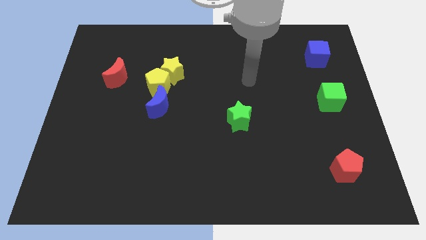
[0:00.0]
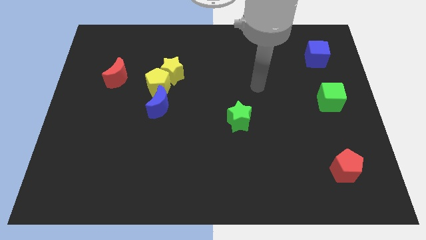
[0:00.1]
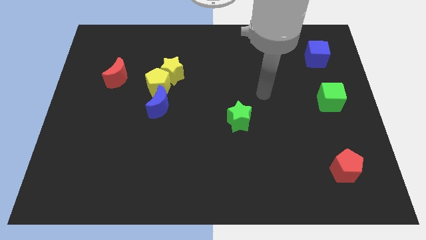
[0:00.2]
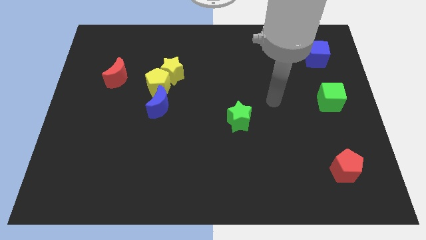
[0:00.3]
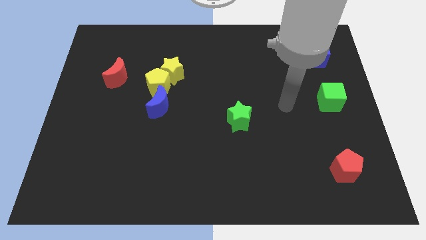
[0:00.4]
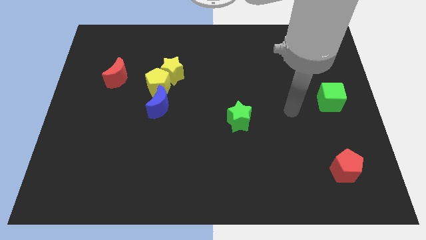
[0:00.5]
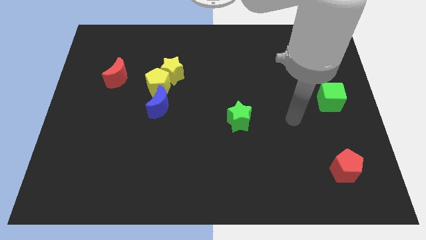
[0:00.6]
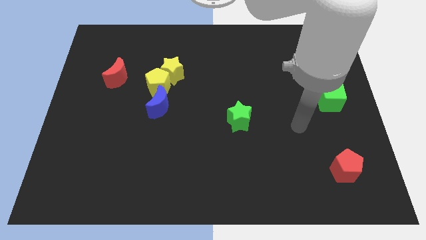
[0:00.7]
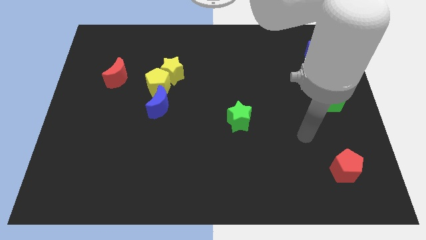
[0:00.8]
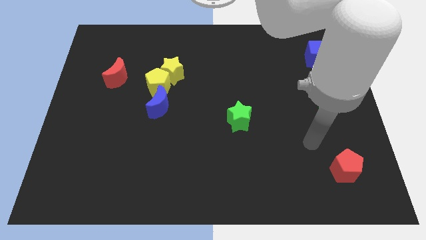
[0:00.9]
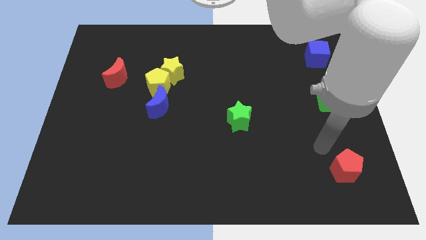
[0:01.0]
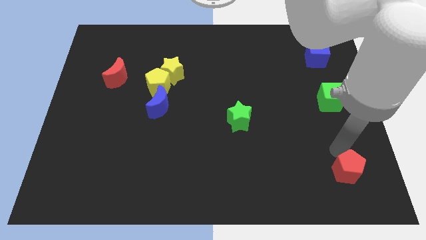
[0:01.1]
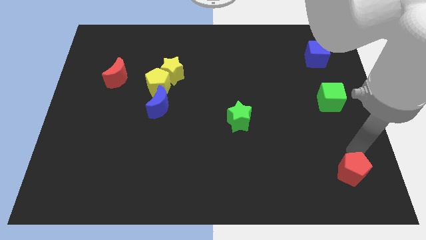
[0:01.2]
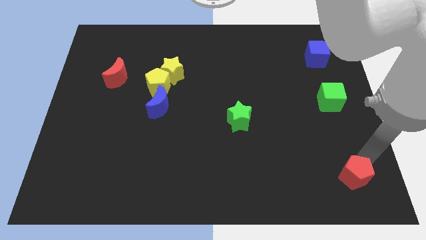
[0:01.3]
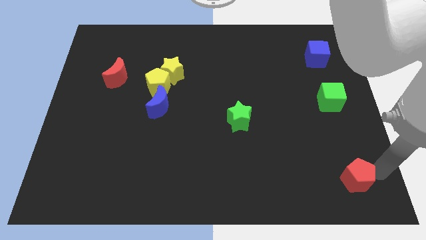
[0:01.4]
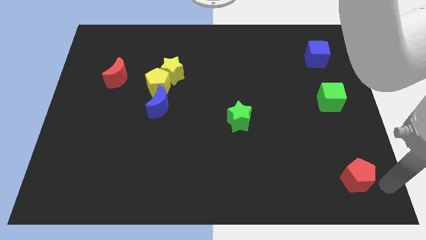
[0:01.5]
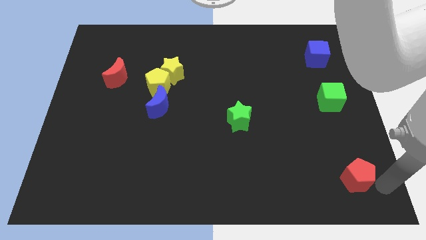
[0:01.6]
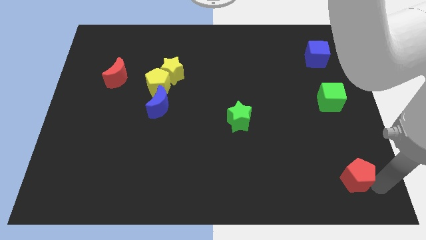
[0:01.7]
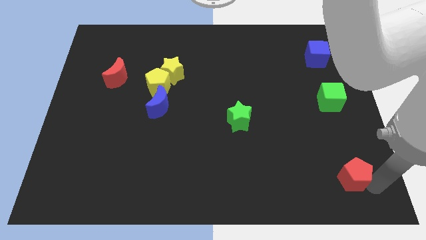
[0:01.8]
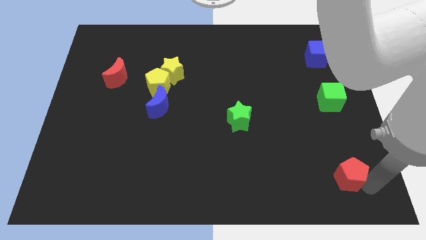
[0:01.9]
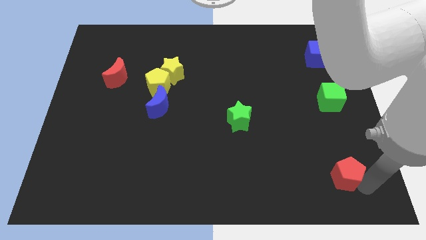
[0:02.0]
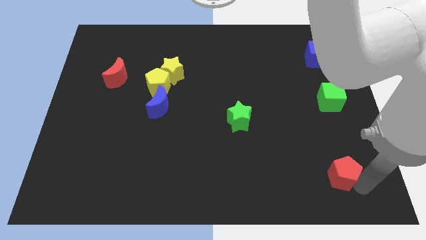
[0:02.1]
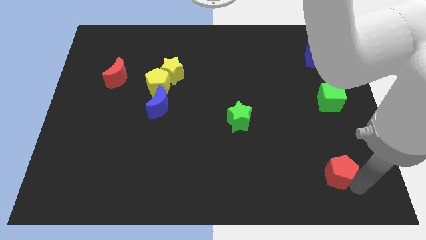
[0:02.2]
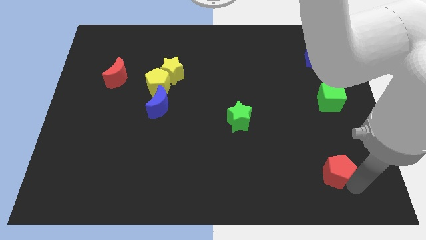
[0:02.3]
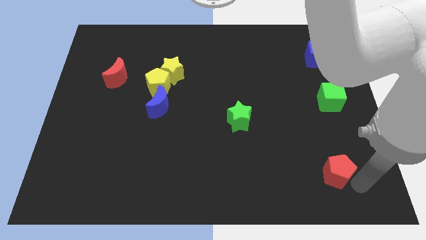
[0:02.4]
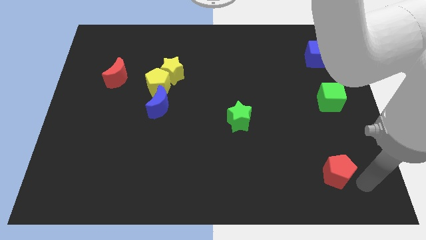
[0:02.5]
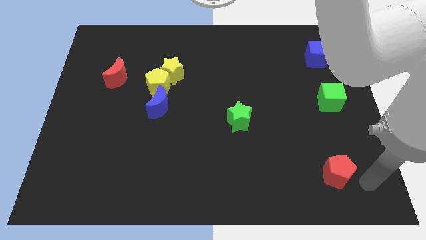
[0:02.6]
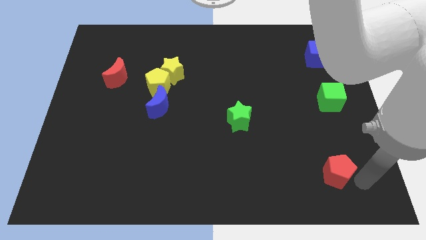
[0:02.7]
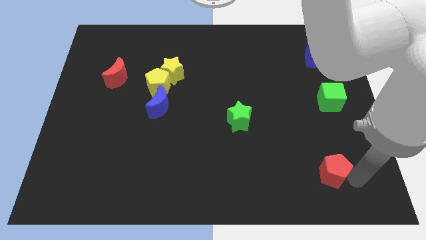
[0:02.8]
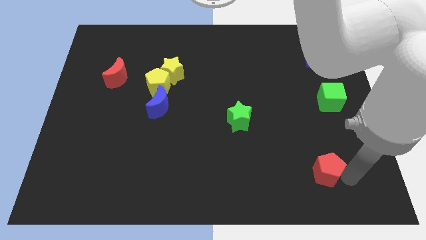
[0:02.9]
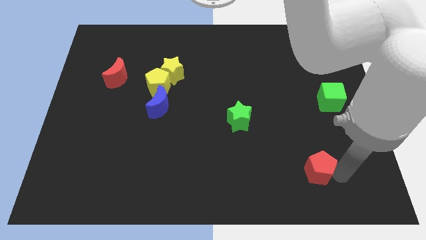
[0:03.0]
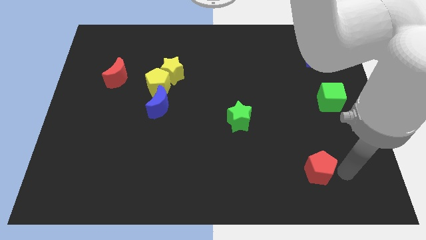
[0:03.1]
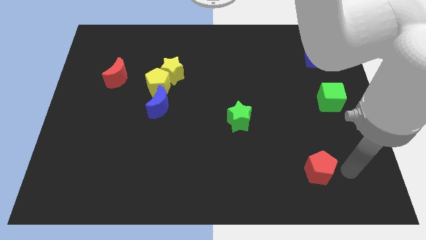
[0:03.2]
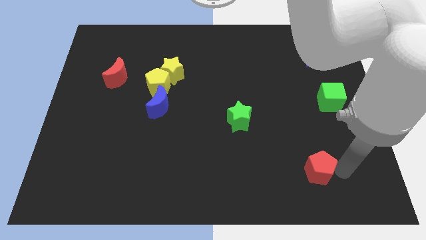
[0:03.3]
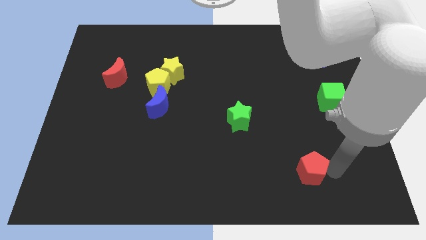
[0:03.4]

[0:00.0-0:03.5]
slightly push the red pentagon to the left

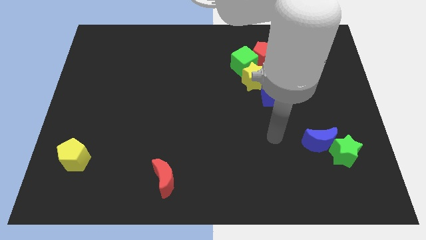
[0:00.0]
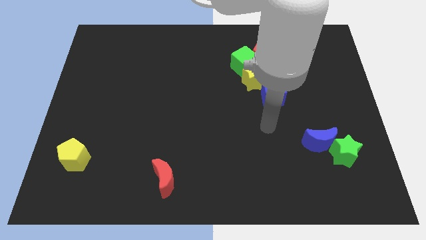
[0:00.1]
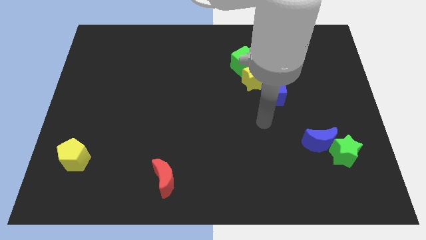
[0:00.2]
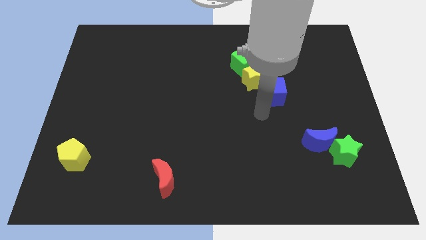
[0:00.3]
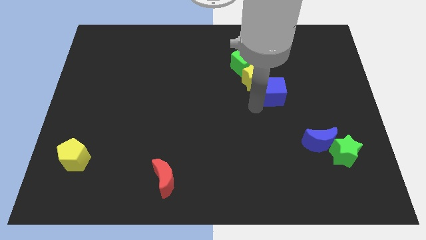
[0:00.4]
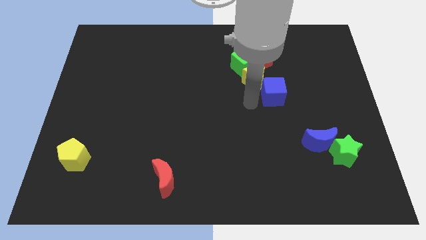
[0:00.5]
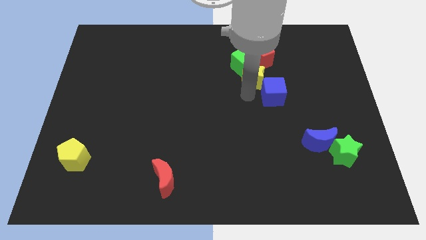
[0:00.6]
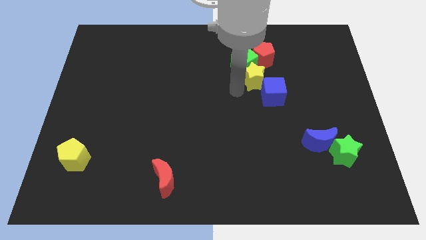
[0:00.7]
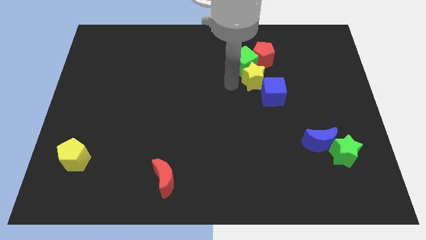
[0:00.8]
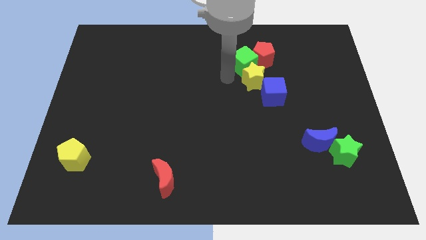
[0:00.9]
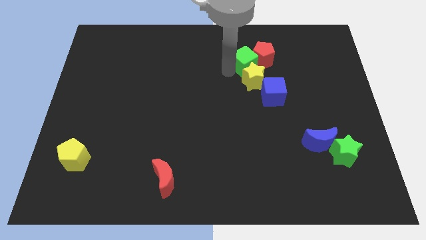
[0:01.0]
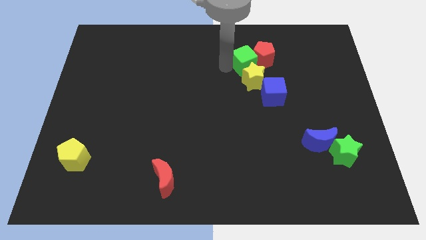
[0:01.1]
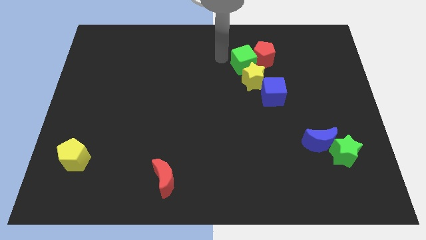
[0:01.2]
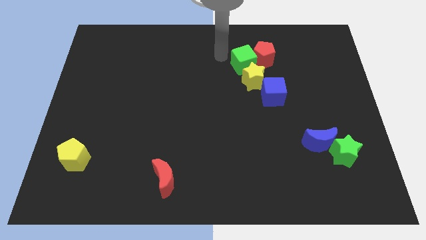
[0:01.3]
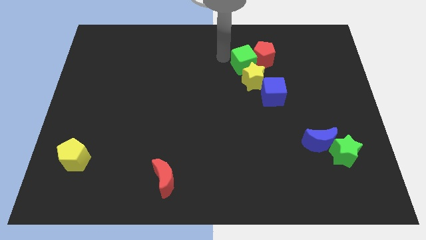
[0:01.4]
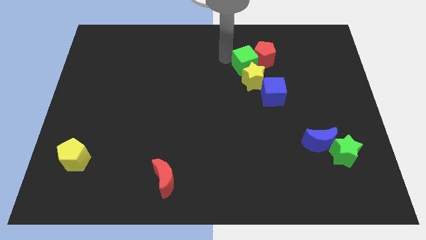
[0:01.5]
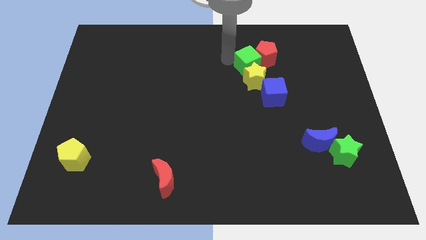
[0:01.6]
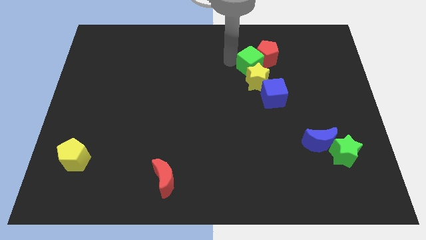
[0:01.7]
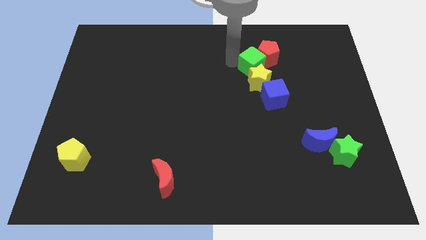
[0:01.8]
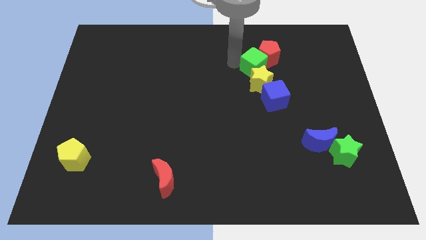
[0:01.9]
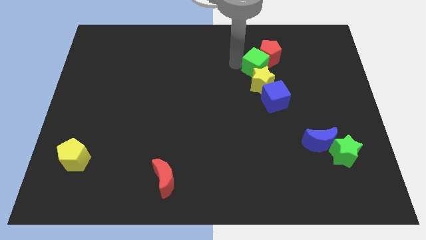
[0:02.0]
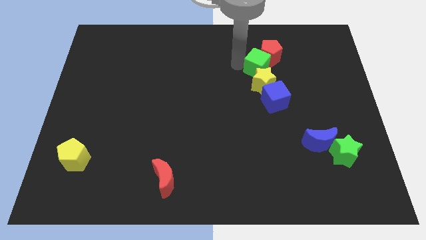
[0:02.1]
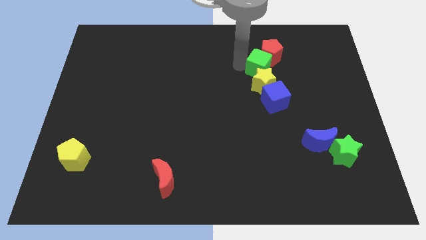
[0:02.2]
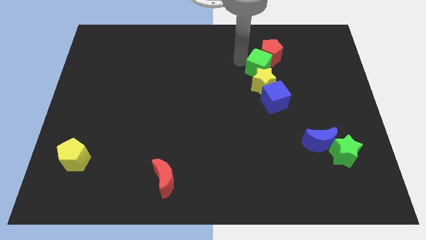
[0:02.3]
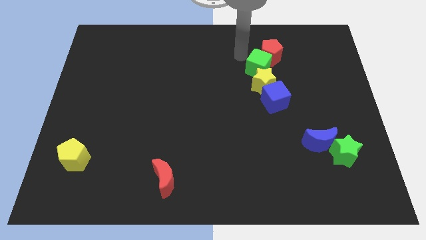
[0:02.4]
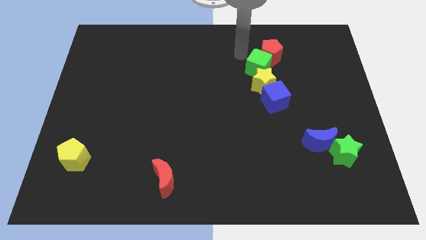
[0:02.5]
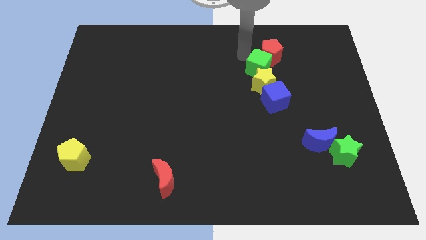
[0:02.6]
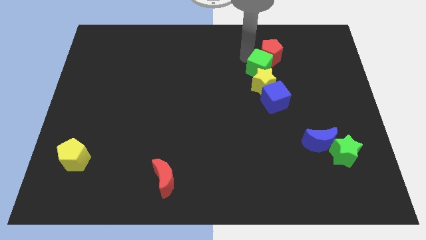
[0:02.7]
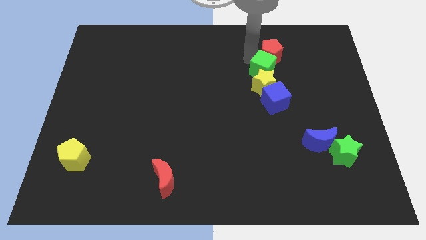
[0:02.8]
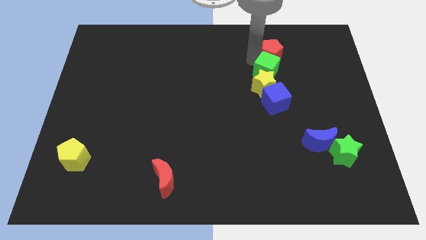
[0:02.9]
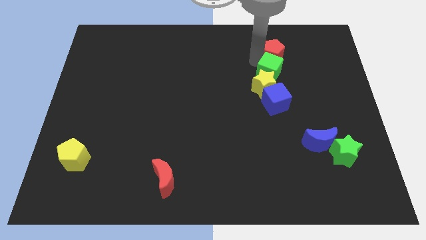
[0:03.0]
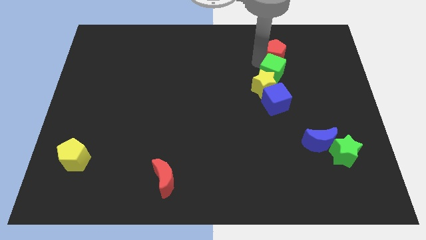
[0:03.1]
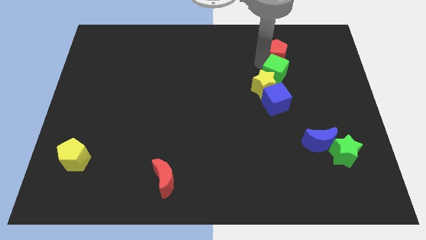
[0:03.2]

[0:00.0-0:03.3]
move the green cube a bit down and right

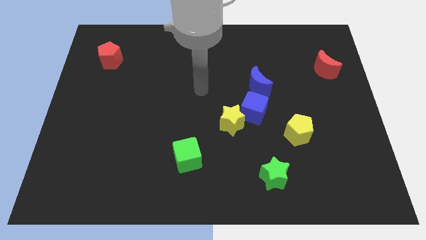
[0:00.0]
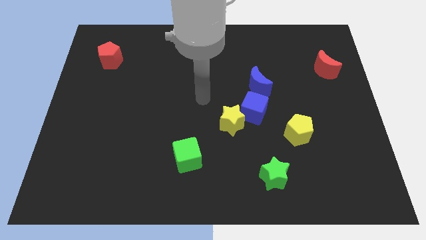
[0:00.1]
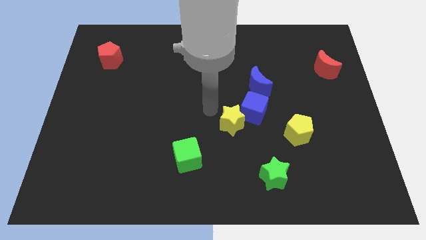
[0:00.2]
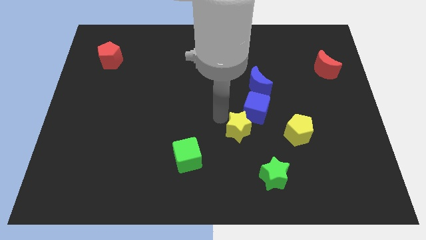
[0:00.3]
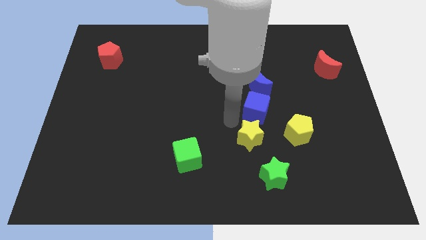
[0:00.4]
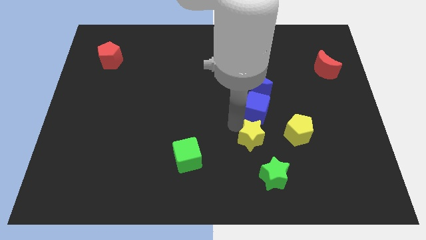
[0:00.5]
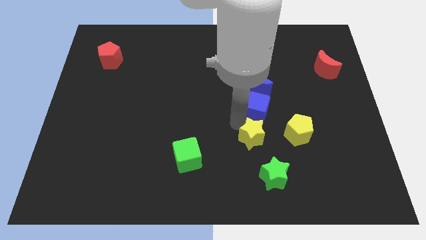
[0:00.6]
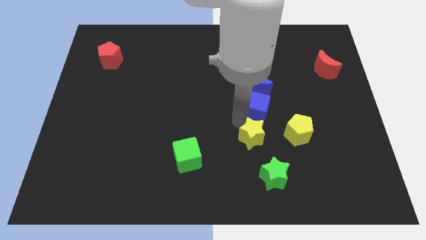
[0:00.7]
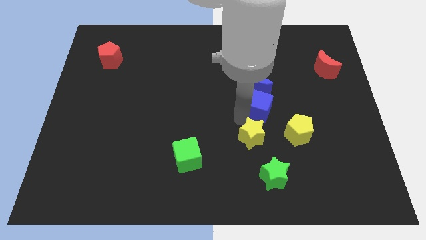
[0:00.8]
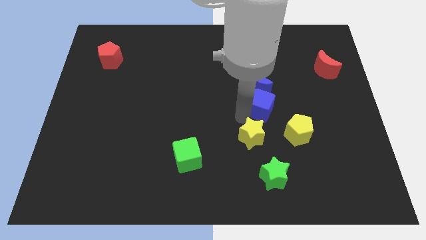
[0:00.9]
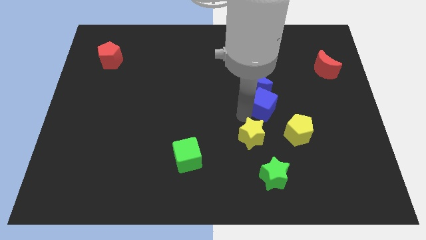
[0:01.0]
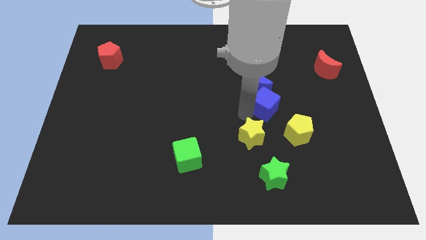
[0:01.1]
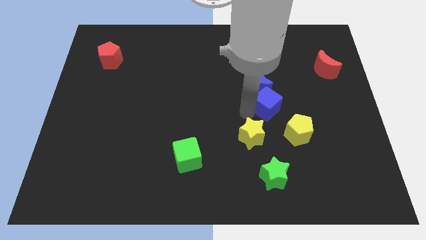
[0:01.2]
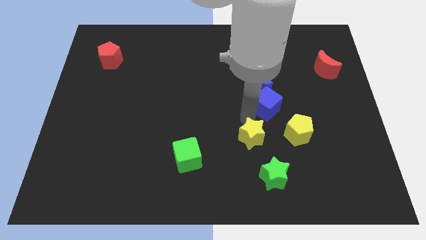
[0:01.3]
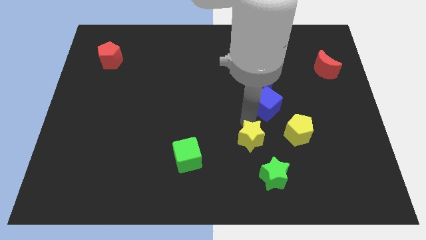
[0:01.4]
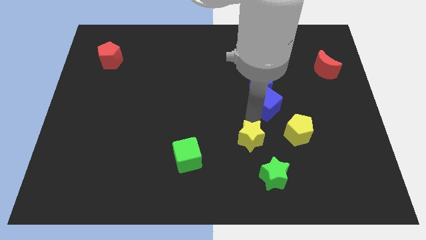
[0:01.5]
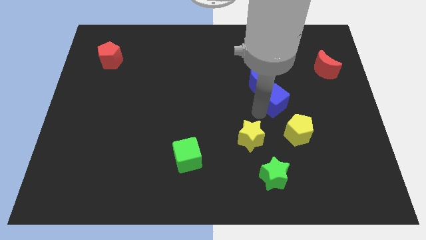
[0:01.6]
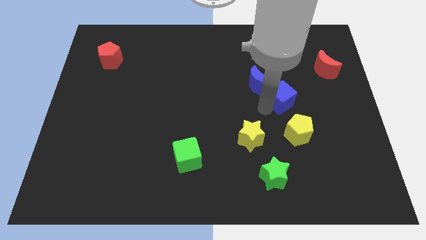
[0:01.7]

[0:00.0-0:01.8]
push the blue cube up and right slightly

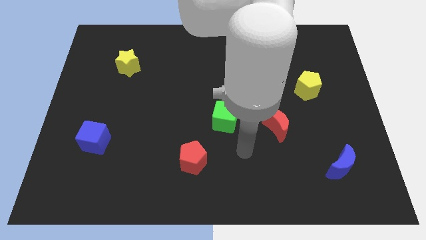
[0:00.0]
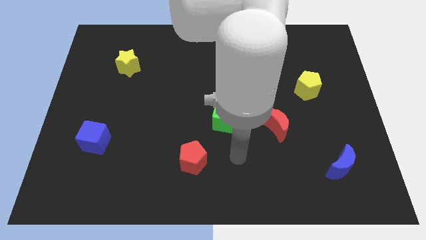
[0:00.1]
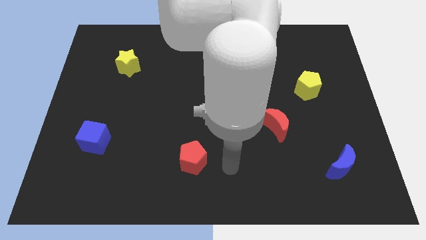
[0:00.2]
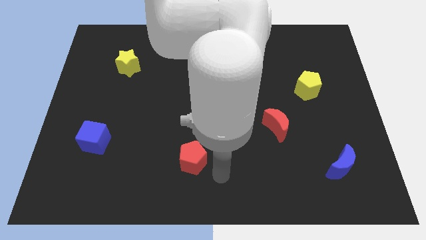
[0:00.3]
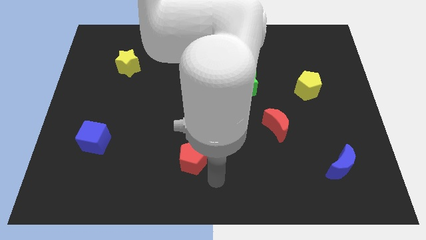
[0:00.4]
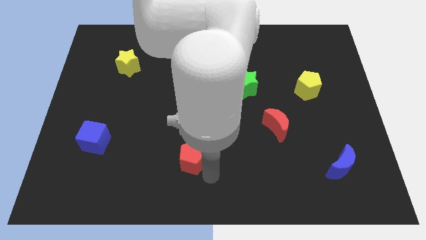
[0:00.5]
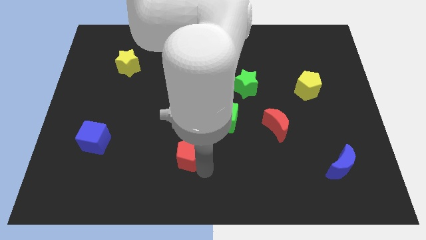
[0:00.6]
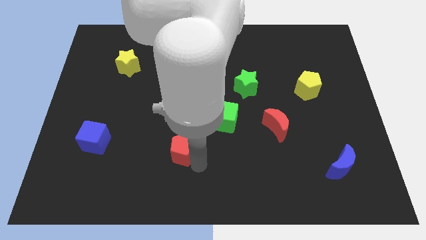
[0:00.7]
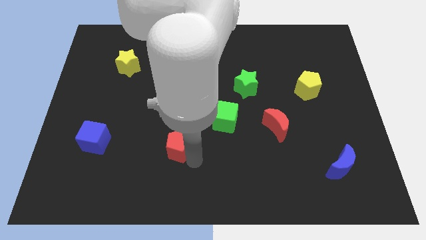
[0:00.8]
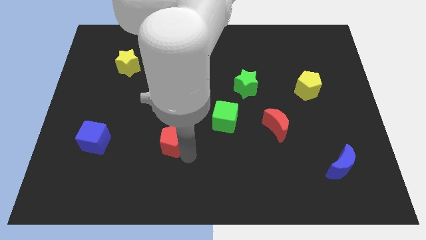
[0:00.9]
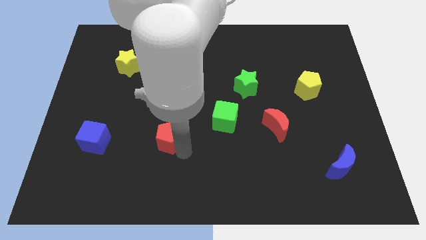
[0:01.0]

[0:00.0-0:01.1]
push the red pentagon a little up and to the left diagonally
